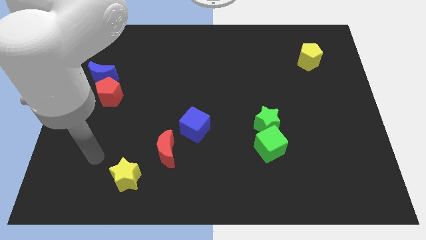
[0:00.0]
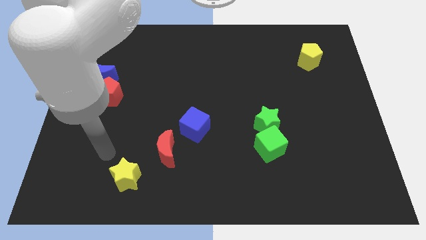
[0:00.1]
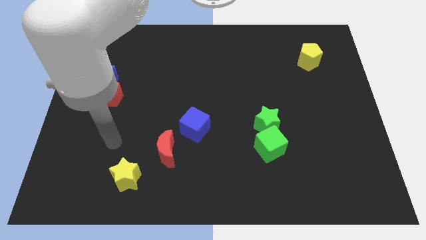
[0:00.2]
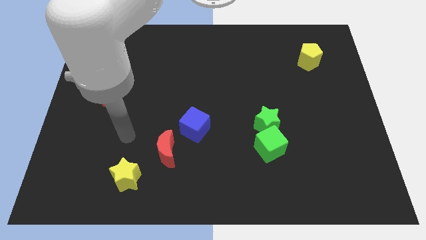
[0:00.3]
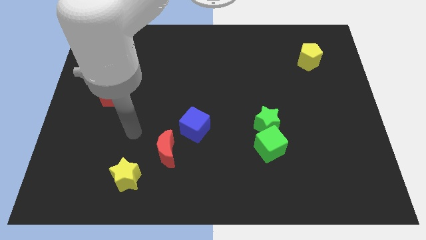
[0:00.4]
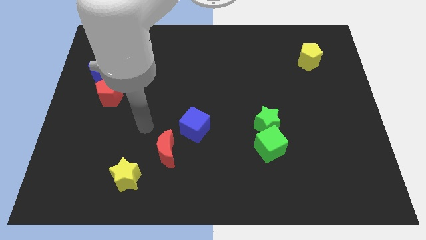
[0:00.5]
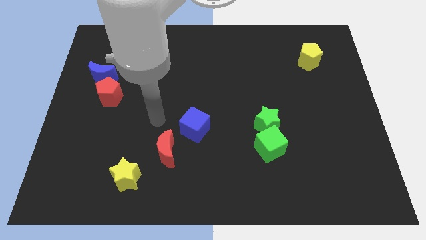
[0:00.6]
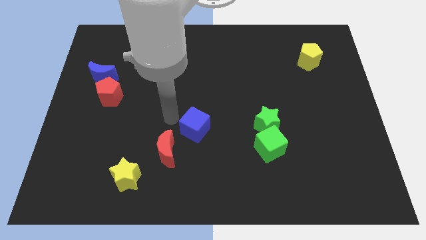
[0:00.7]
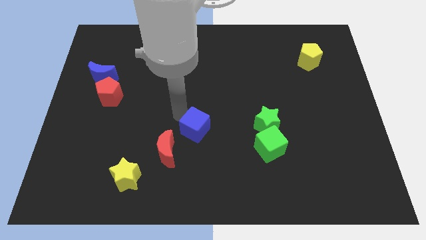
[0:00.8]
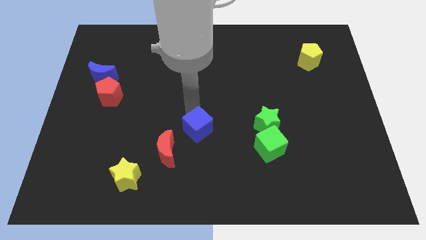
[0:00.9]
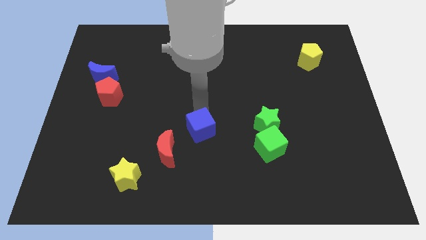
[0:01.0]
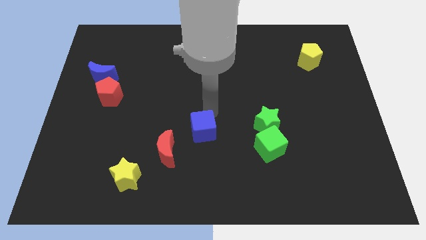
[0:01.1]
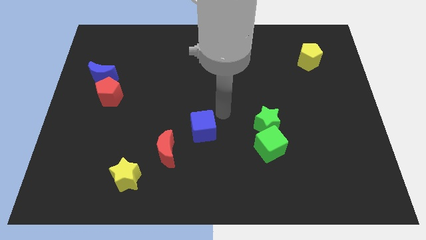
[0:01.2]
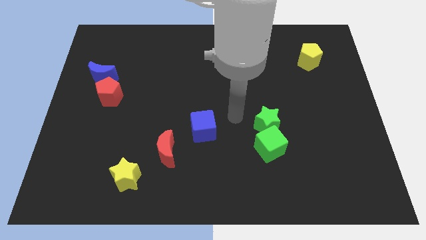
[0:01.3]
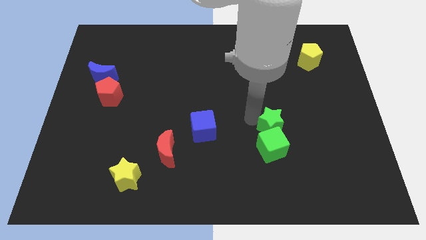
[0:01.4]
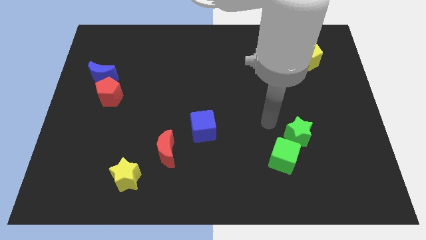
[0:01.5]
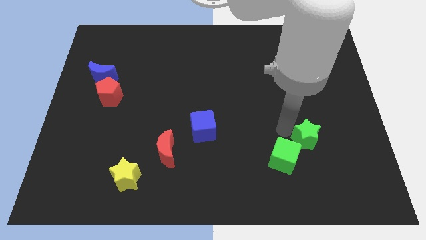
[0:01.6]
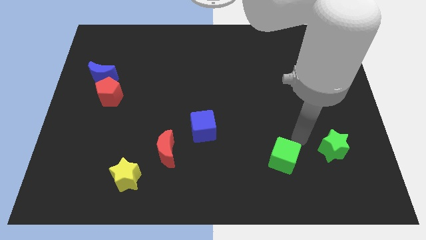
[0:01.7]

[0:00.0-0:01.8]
pull the green cube apart from the green star

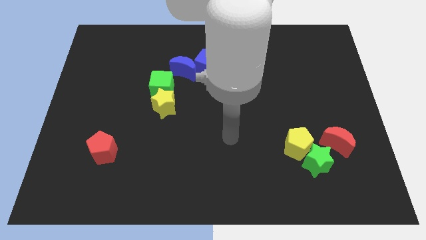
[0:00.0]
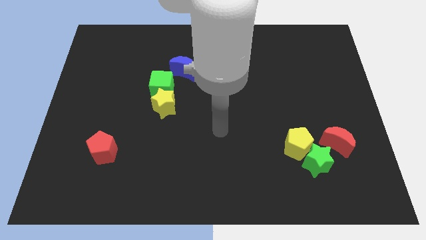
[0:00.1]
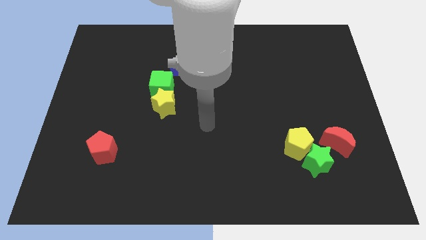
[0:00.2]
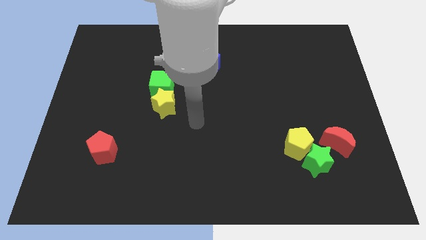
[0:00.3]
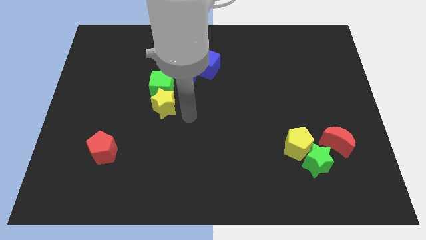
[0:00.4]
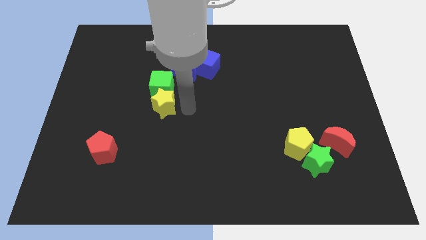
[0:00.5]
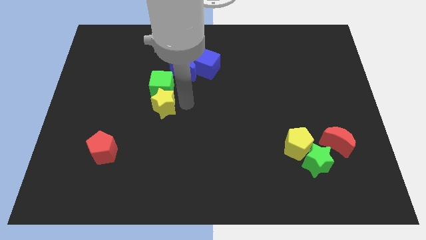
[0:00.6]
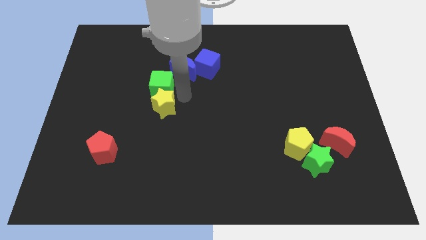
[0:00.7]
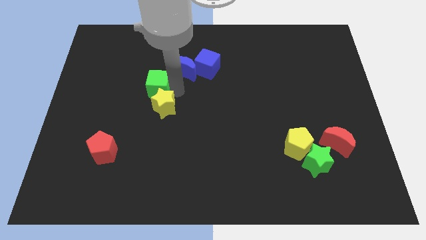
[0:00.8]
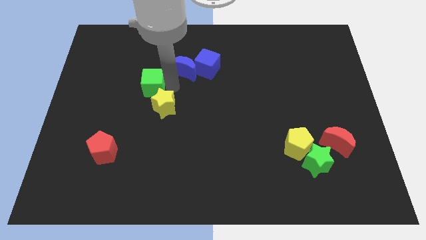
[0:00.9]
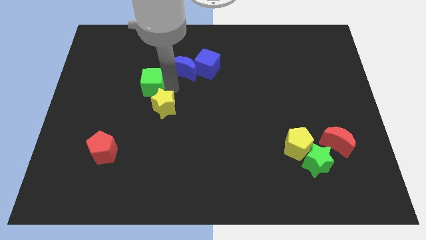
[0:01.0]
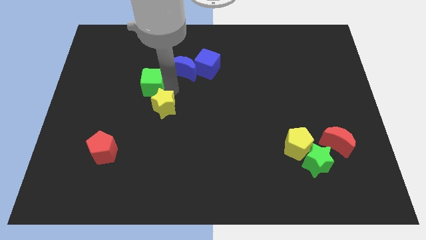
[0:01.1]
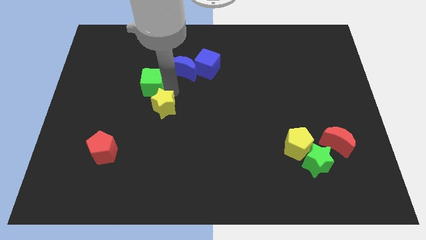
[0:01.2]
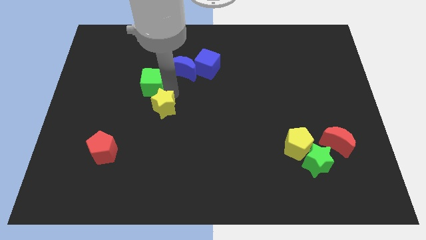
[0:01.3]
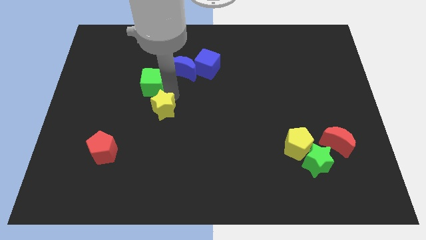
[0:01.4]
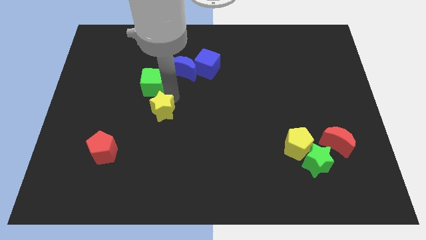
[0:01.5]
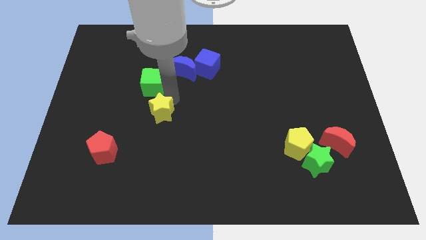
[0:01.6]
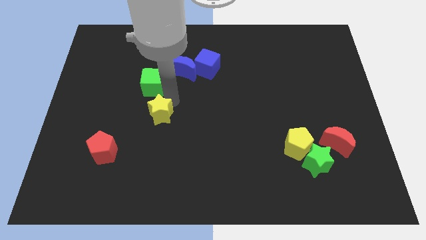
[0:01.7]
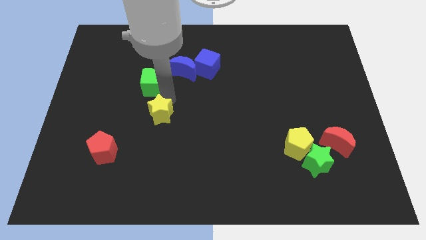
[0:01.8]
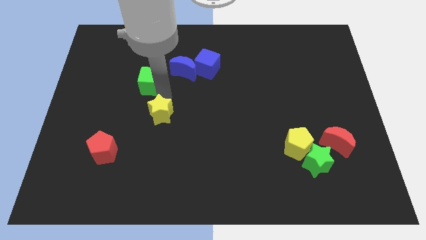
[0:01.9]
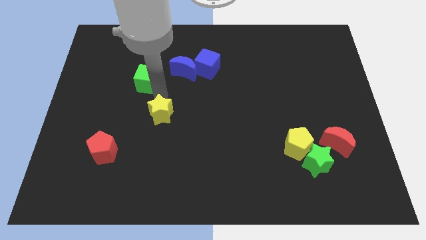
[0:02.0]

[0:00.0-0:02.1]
pull the yellow star apart from the green cube

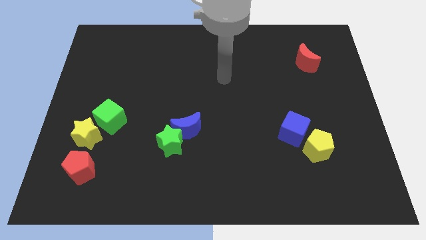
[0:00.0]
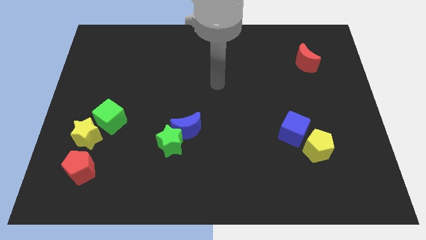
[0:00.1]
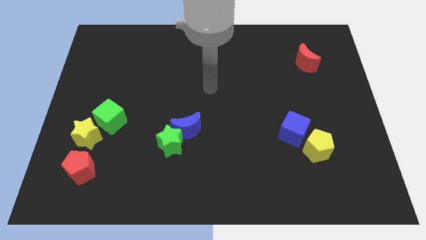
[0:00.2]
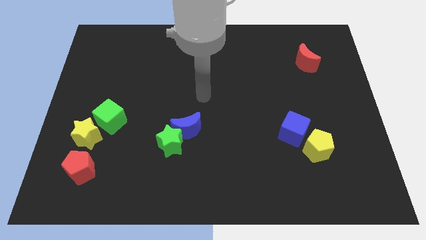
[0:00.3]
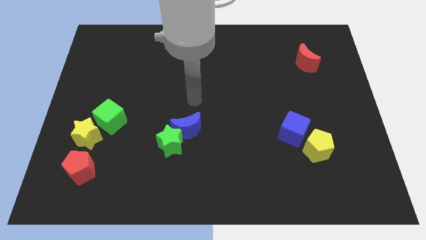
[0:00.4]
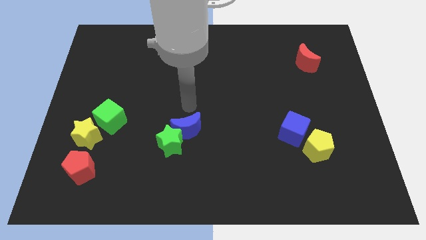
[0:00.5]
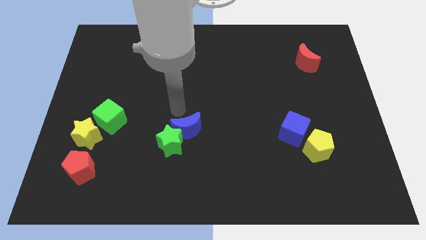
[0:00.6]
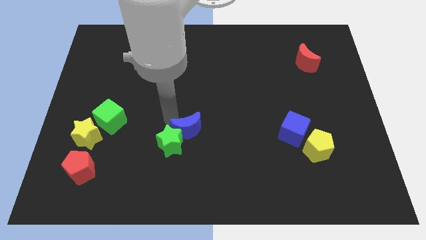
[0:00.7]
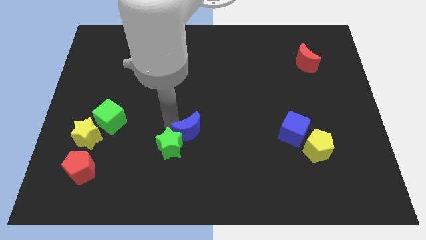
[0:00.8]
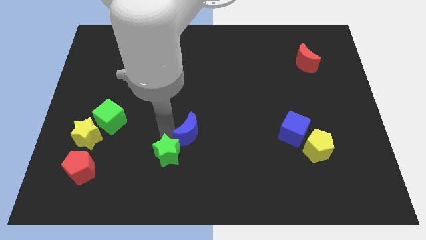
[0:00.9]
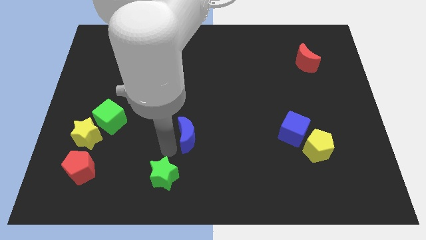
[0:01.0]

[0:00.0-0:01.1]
separate the blue moon from the green star

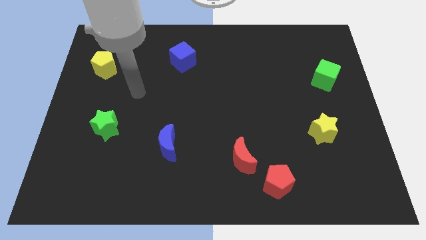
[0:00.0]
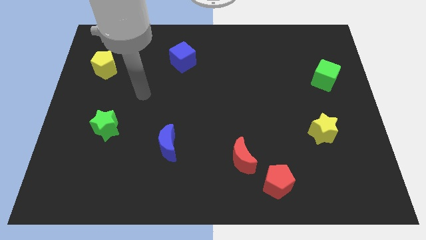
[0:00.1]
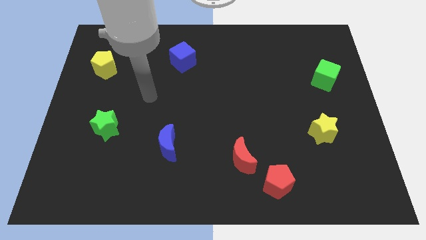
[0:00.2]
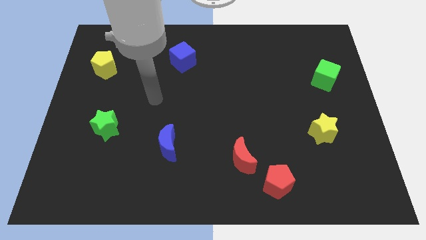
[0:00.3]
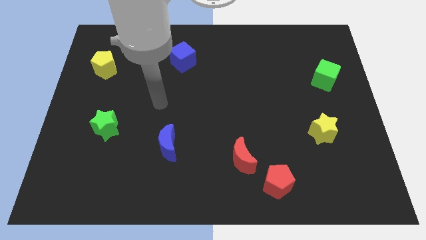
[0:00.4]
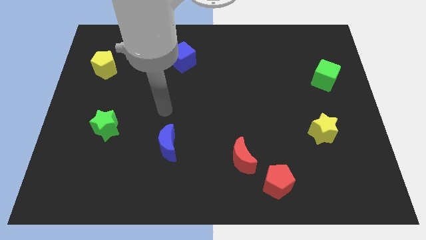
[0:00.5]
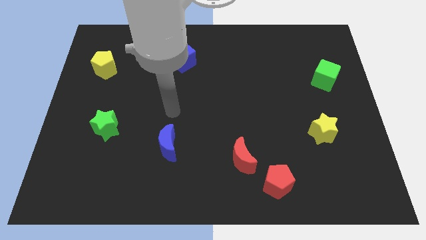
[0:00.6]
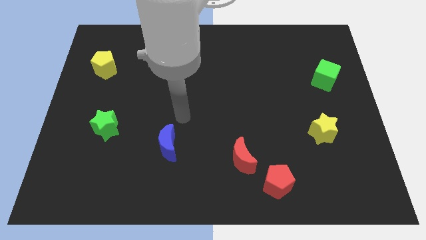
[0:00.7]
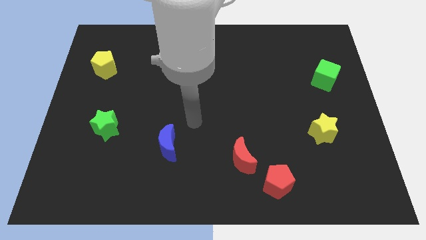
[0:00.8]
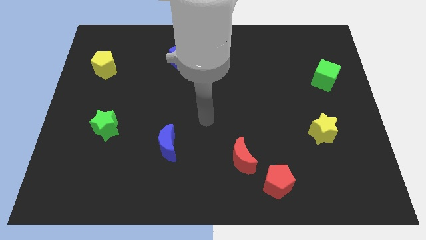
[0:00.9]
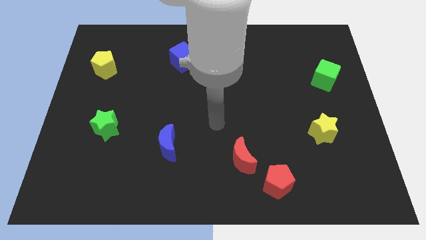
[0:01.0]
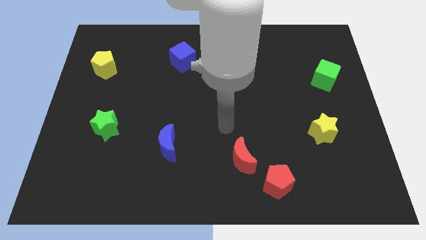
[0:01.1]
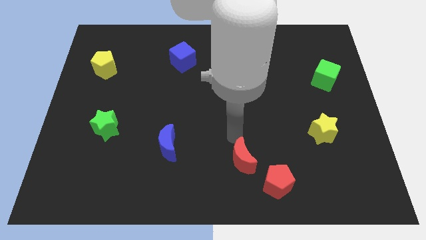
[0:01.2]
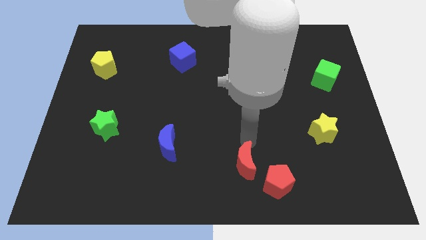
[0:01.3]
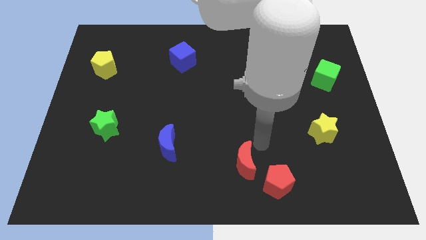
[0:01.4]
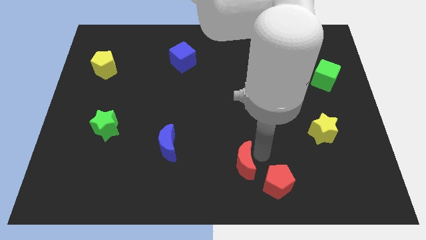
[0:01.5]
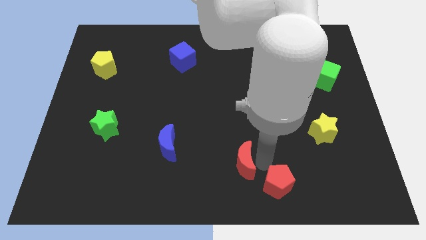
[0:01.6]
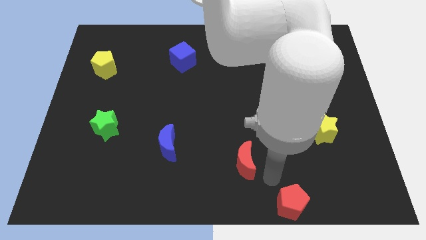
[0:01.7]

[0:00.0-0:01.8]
pull the red moon apart from the red pentagon

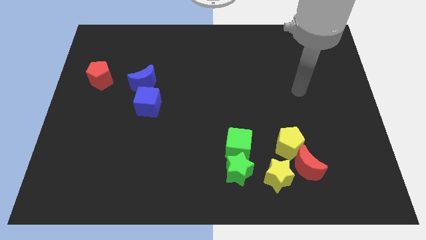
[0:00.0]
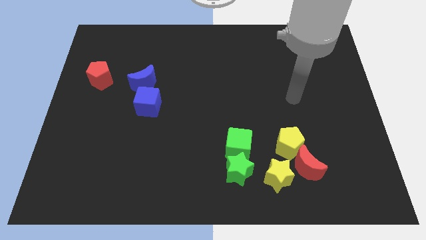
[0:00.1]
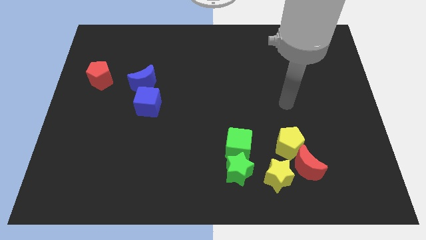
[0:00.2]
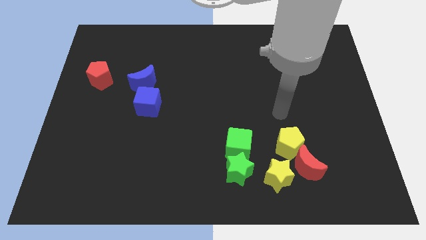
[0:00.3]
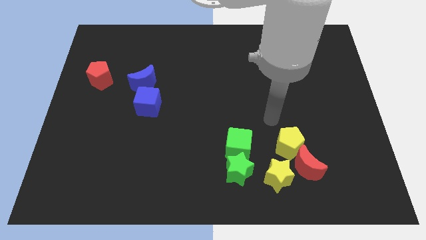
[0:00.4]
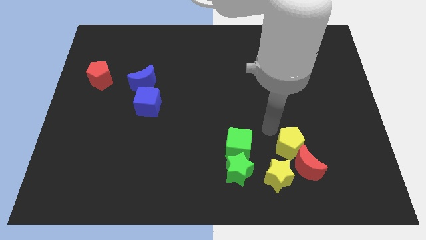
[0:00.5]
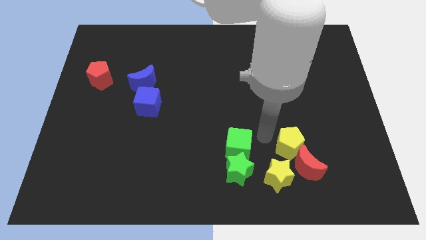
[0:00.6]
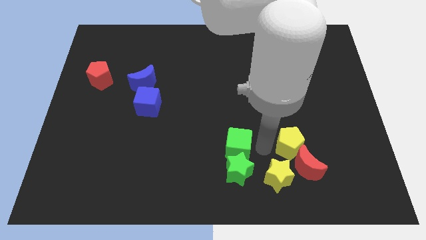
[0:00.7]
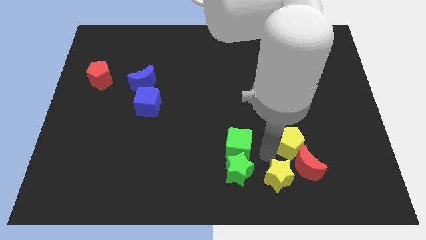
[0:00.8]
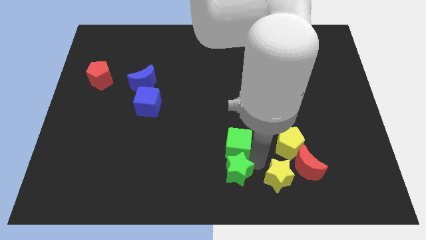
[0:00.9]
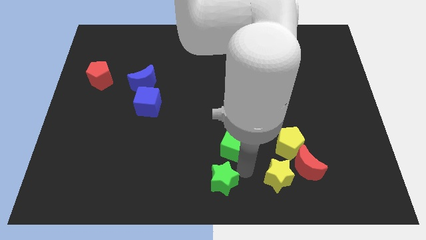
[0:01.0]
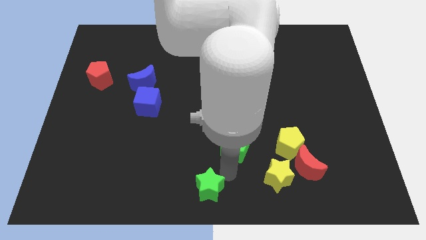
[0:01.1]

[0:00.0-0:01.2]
separate the green cube from the green star

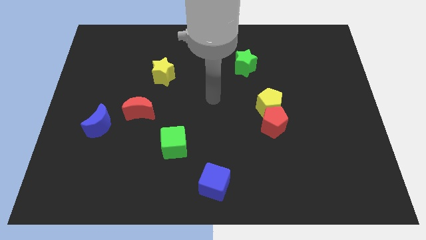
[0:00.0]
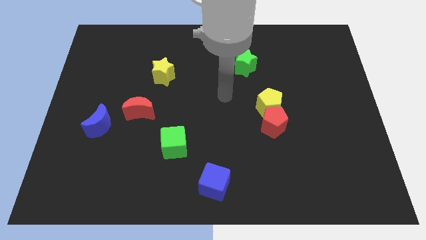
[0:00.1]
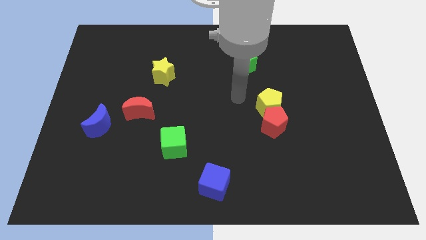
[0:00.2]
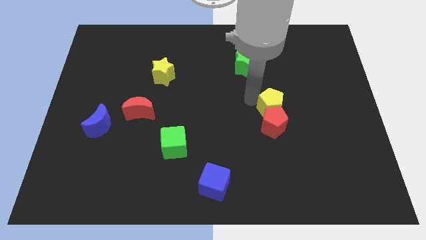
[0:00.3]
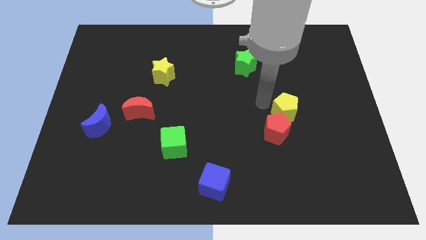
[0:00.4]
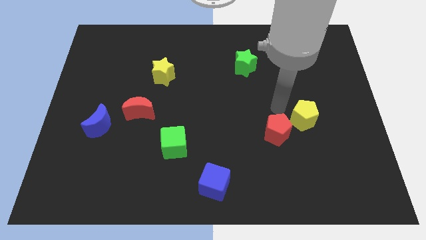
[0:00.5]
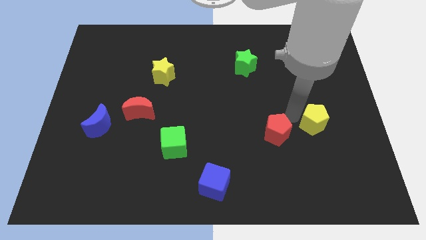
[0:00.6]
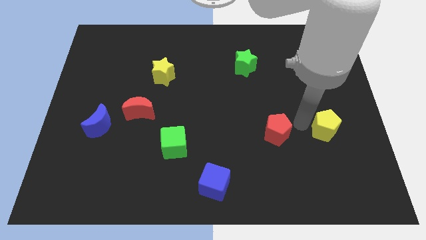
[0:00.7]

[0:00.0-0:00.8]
separate the red pentagon from the yellow pentagon

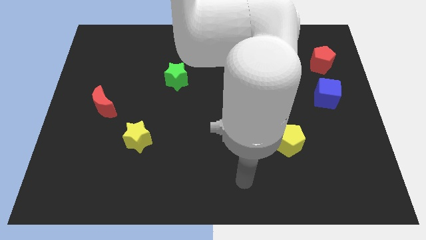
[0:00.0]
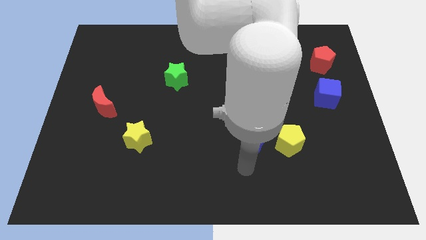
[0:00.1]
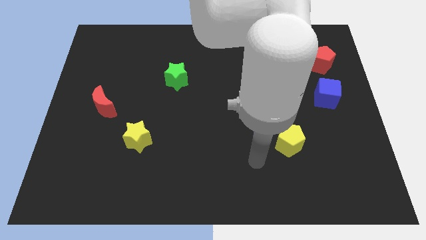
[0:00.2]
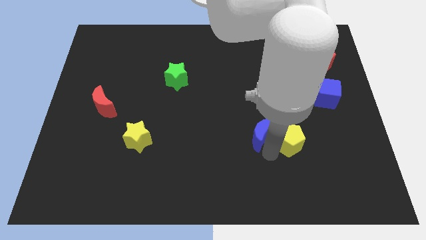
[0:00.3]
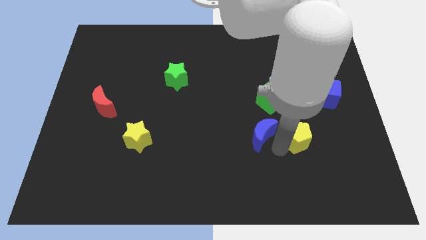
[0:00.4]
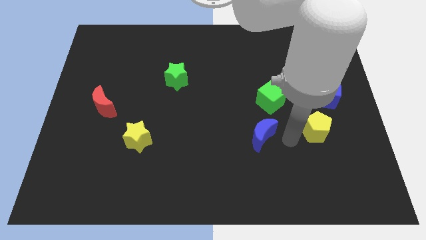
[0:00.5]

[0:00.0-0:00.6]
separate the blue moon from the yellow pentagon
